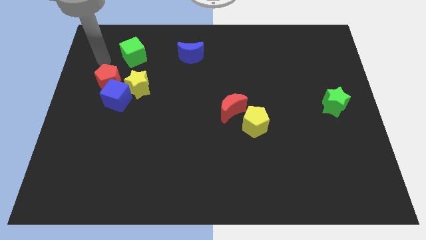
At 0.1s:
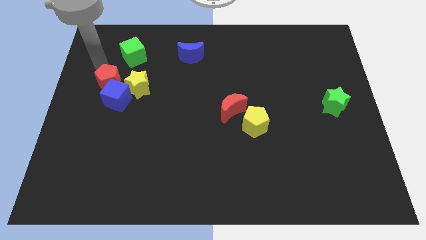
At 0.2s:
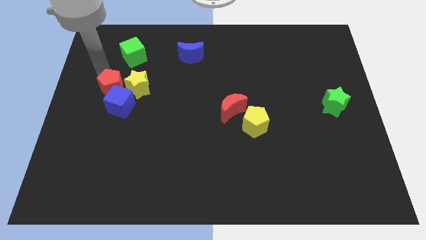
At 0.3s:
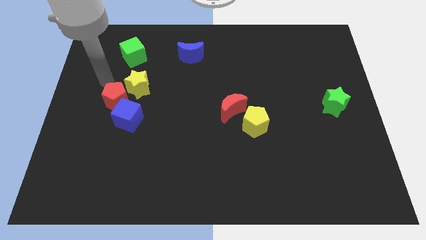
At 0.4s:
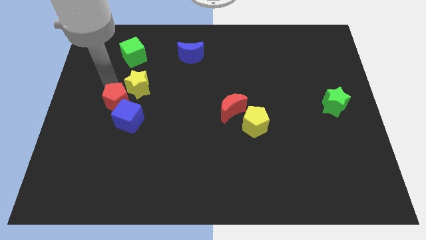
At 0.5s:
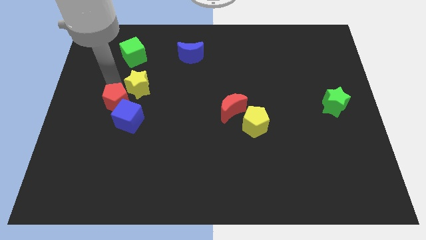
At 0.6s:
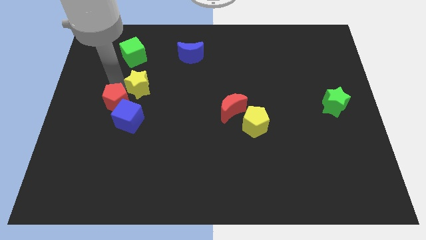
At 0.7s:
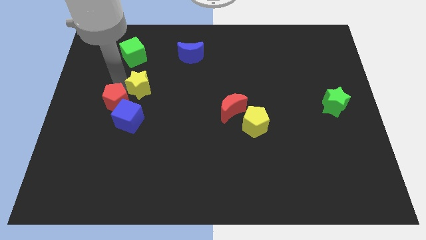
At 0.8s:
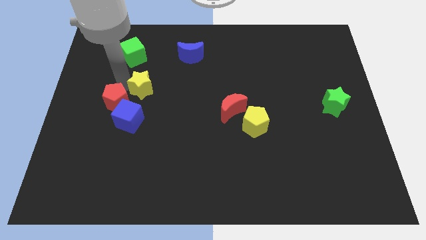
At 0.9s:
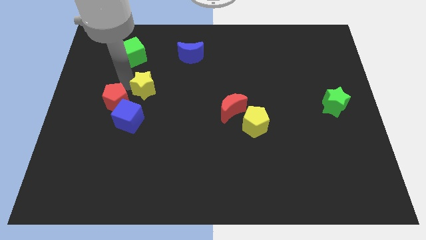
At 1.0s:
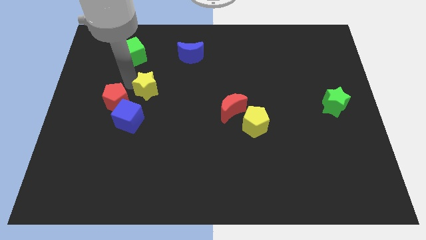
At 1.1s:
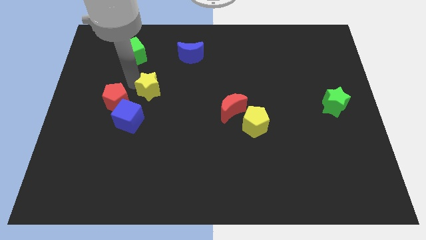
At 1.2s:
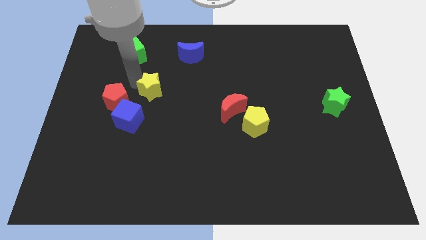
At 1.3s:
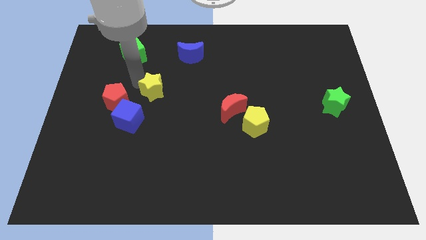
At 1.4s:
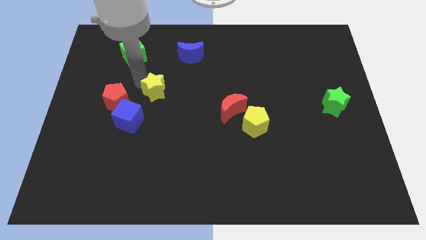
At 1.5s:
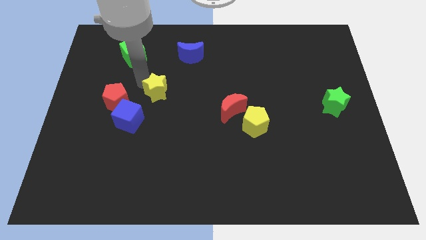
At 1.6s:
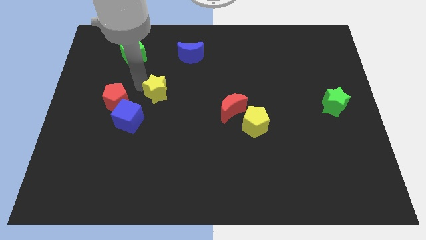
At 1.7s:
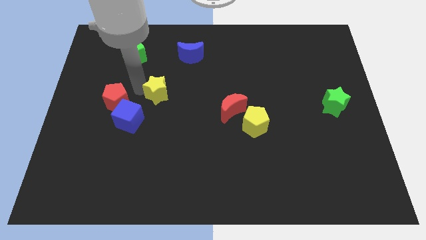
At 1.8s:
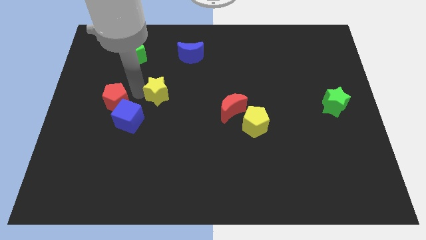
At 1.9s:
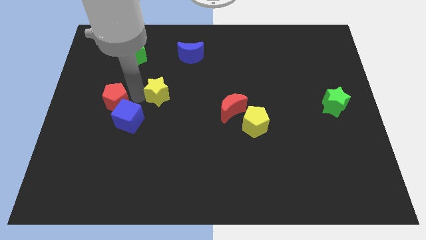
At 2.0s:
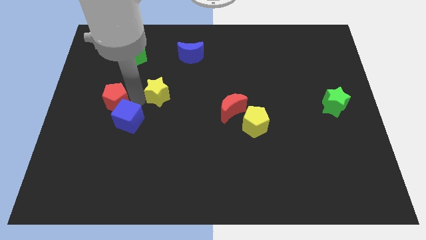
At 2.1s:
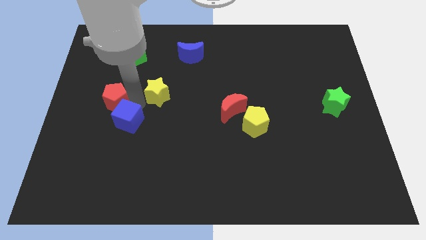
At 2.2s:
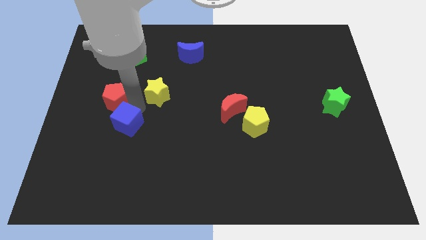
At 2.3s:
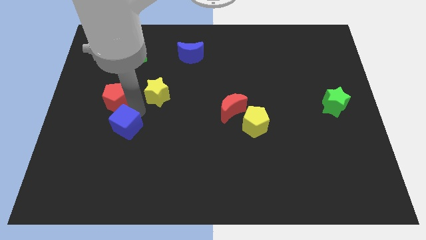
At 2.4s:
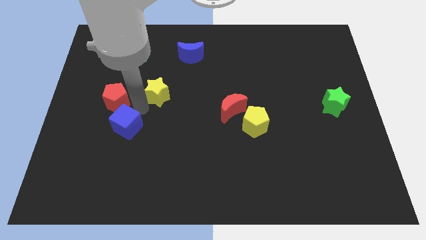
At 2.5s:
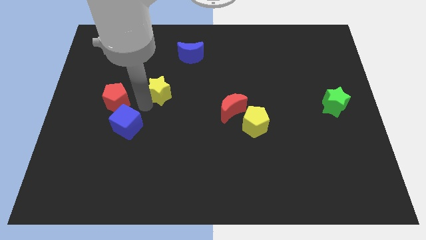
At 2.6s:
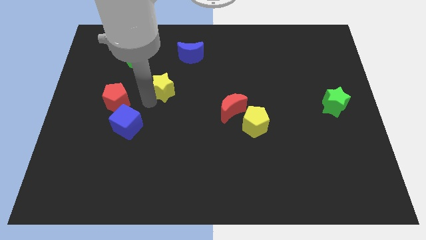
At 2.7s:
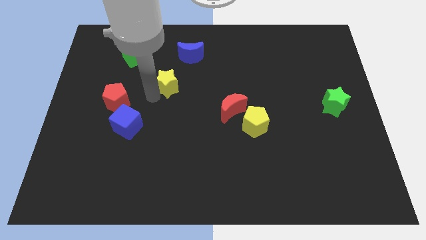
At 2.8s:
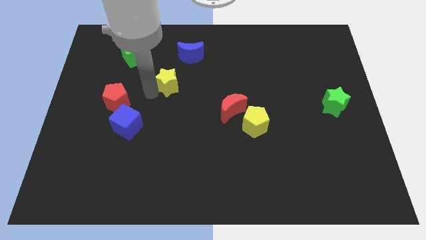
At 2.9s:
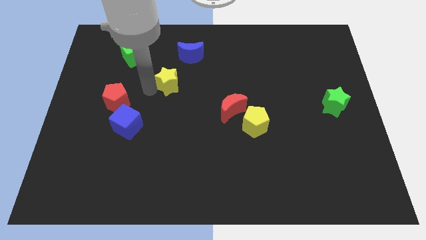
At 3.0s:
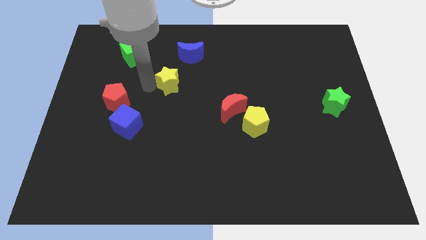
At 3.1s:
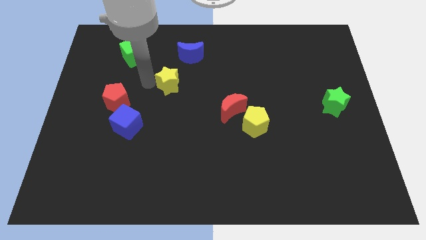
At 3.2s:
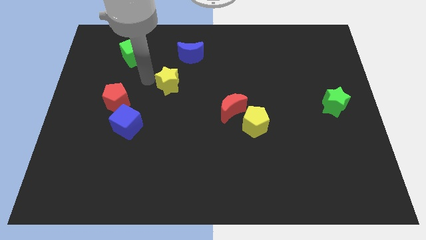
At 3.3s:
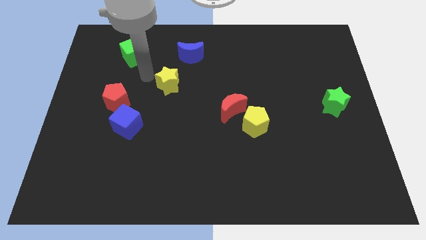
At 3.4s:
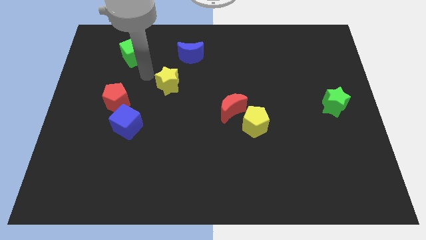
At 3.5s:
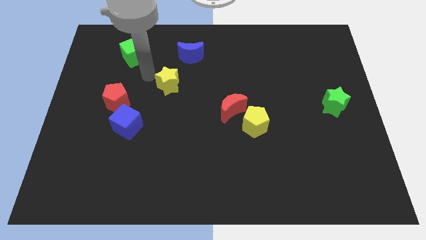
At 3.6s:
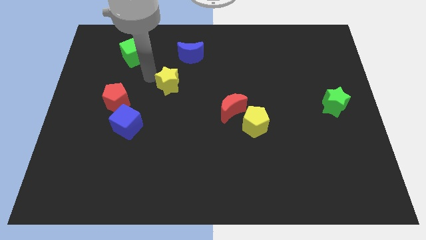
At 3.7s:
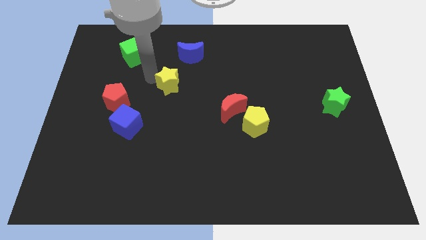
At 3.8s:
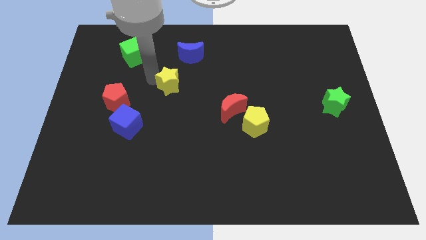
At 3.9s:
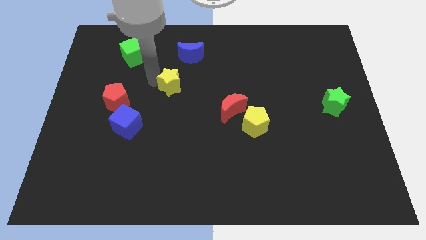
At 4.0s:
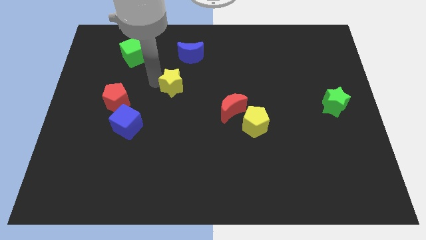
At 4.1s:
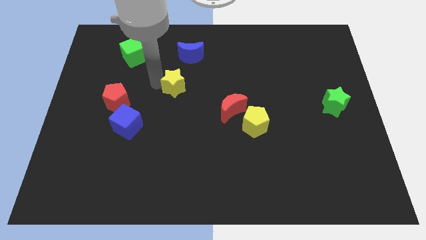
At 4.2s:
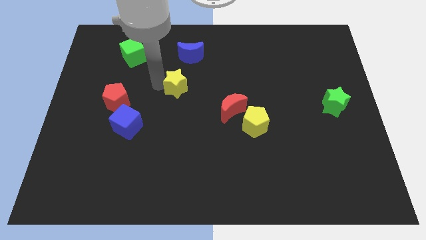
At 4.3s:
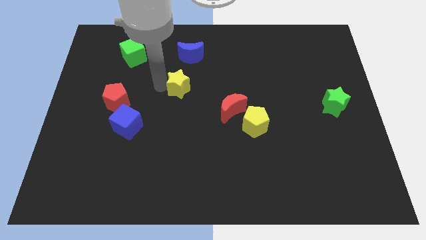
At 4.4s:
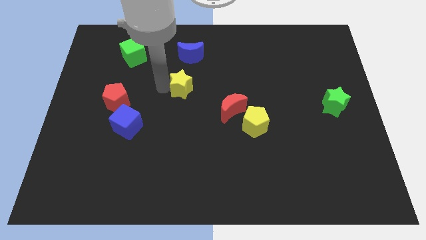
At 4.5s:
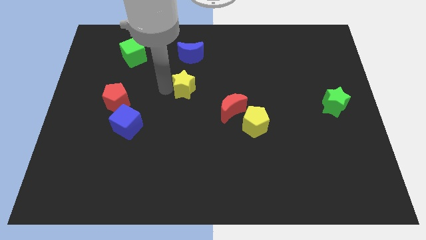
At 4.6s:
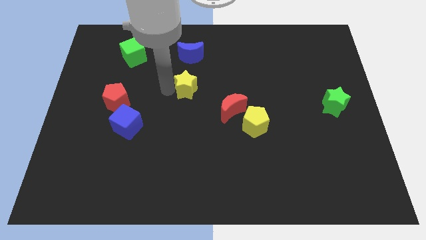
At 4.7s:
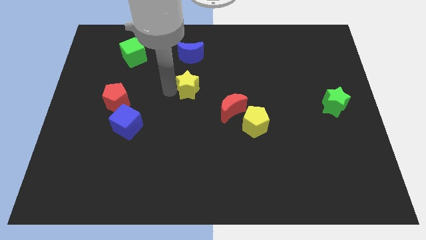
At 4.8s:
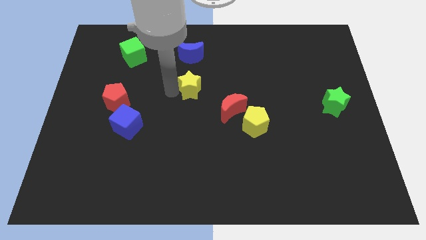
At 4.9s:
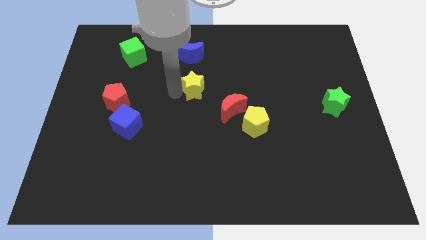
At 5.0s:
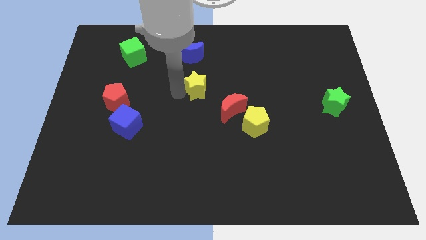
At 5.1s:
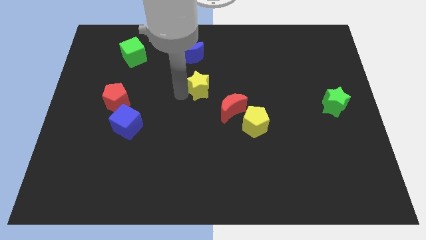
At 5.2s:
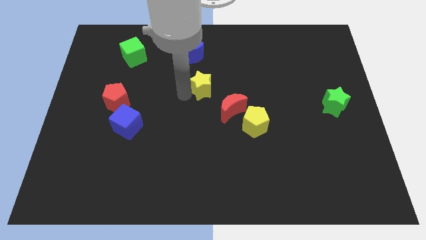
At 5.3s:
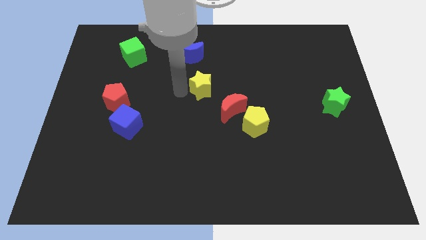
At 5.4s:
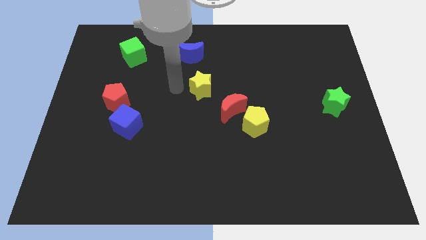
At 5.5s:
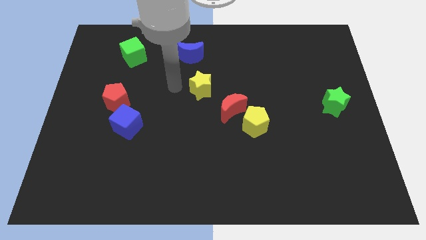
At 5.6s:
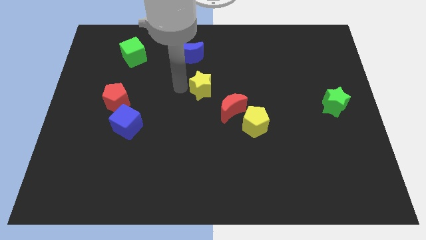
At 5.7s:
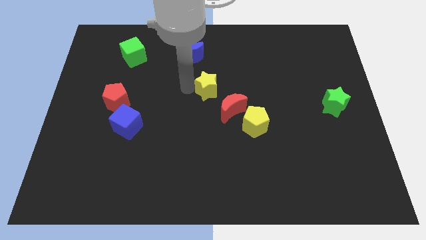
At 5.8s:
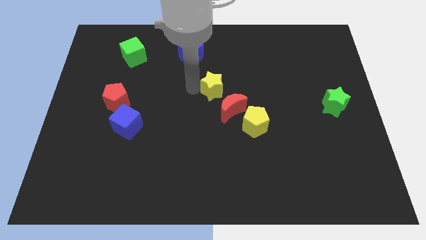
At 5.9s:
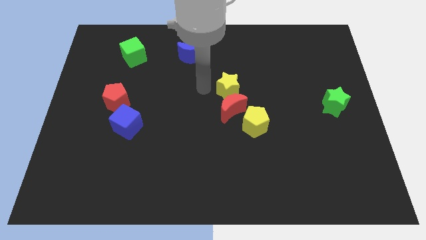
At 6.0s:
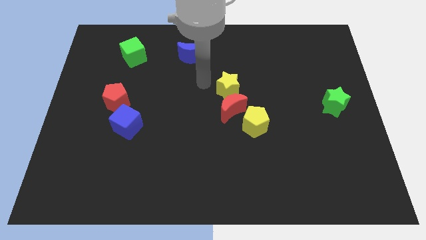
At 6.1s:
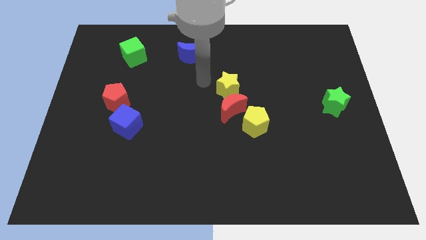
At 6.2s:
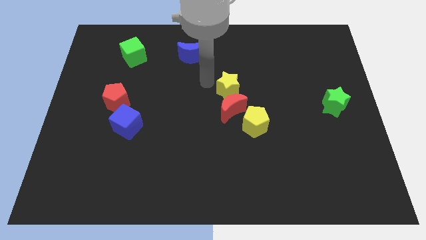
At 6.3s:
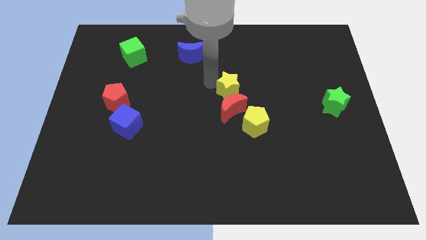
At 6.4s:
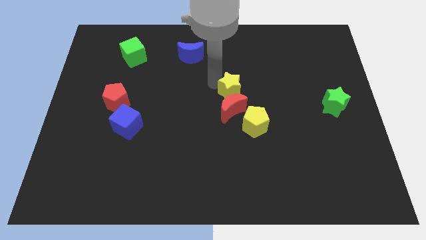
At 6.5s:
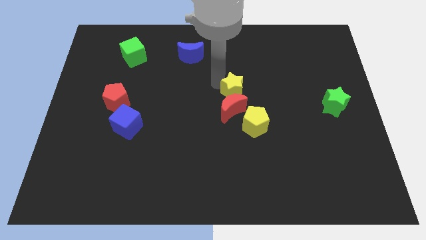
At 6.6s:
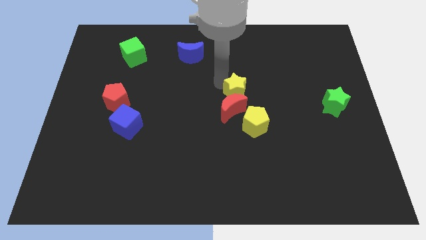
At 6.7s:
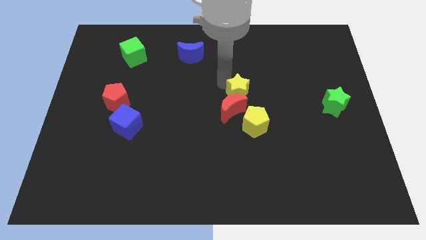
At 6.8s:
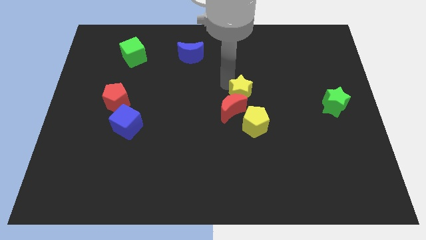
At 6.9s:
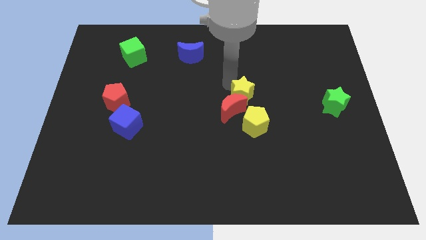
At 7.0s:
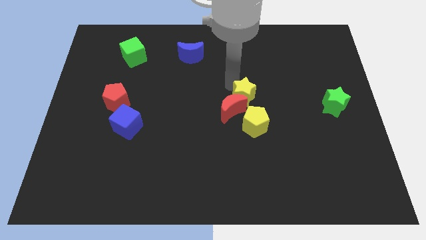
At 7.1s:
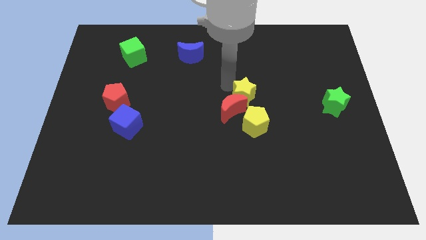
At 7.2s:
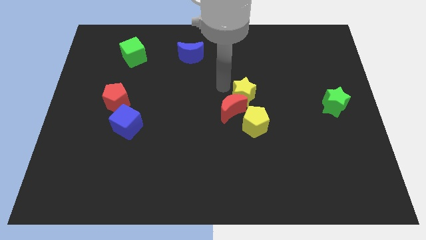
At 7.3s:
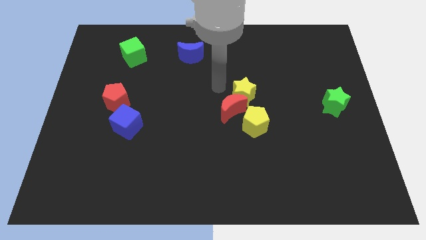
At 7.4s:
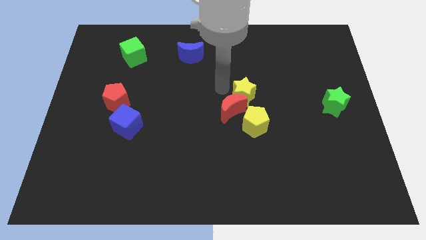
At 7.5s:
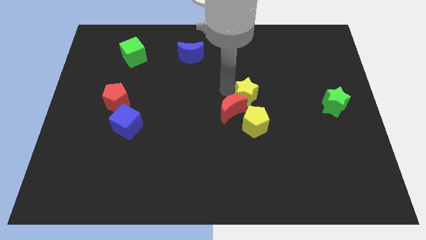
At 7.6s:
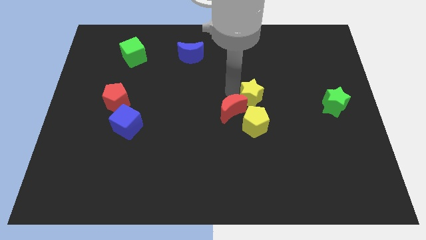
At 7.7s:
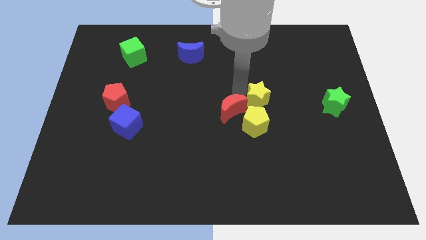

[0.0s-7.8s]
push the yellow star to the top right side of the yellow pentagon
